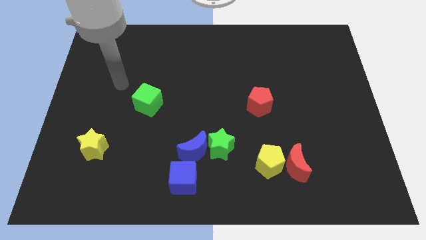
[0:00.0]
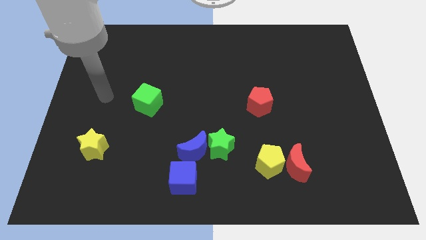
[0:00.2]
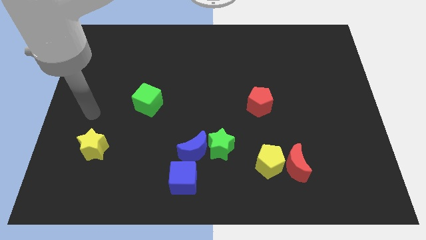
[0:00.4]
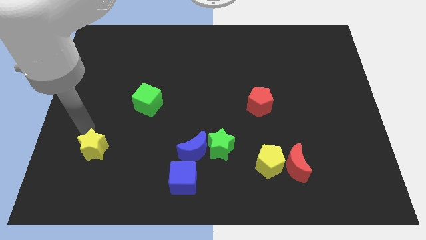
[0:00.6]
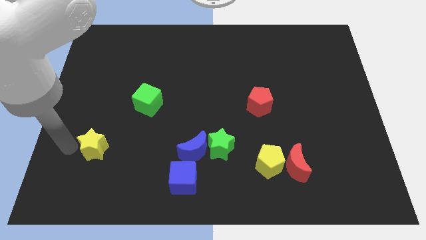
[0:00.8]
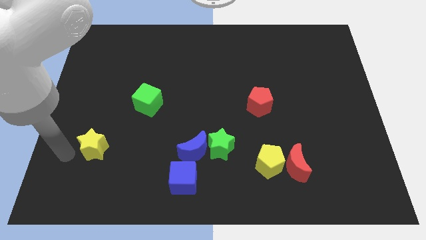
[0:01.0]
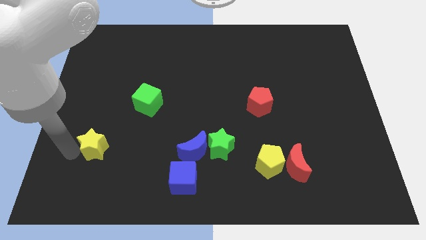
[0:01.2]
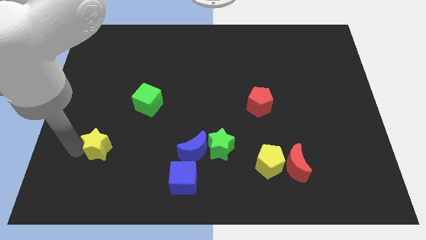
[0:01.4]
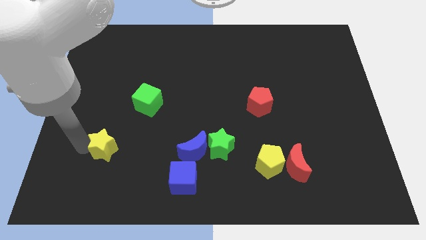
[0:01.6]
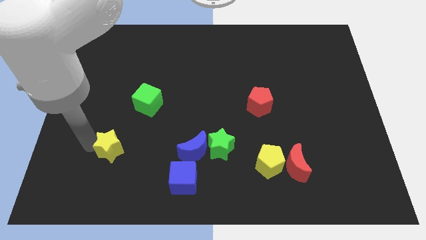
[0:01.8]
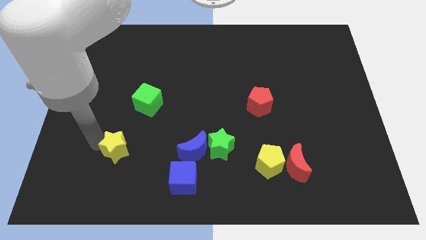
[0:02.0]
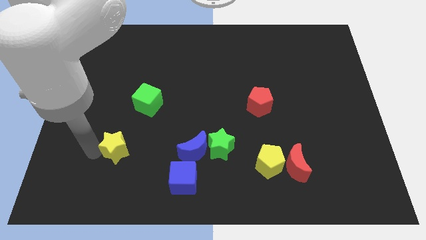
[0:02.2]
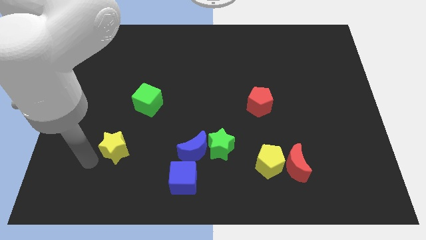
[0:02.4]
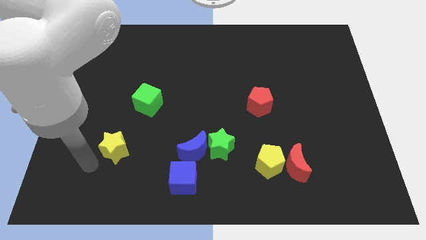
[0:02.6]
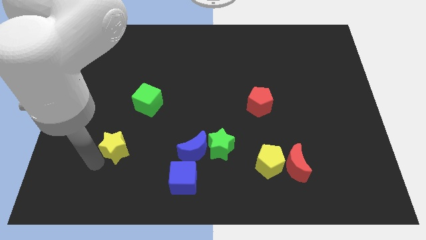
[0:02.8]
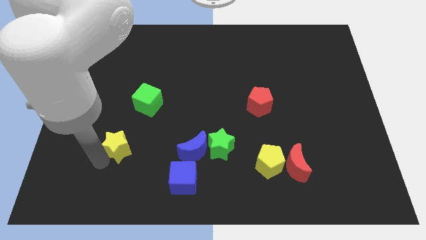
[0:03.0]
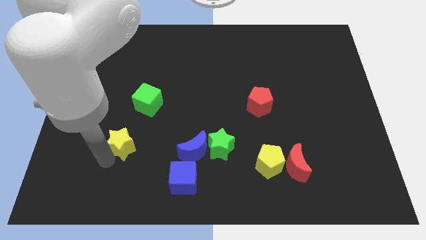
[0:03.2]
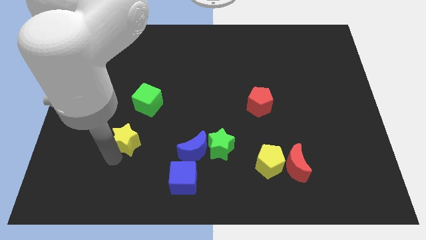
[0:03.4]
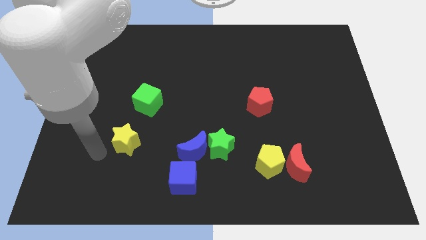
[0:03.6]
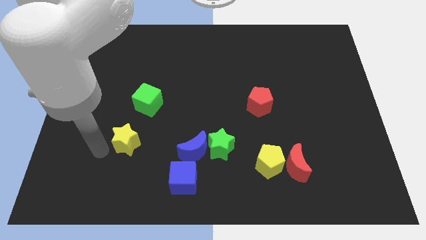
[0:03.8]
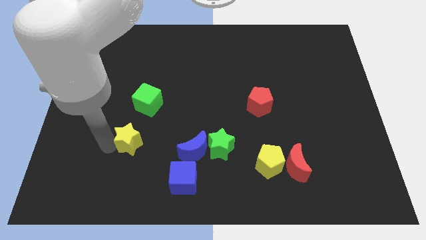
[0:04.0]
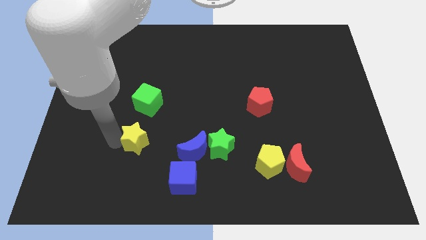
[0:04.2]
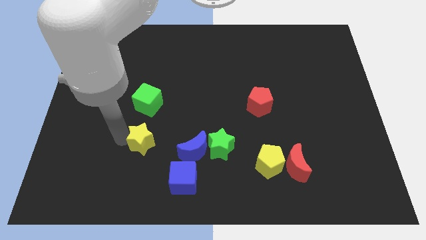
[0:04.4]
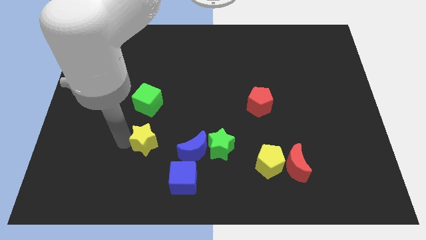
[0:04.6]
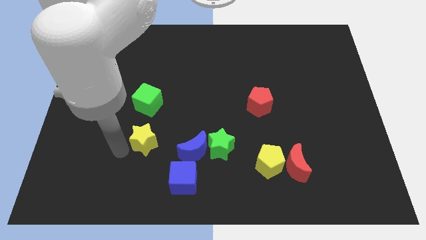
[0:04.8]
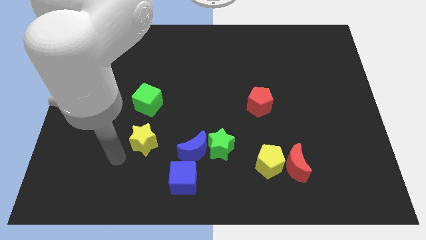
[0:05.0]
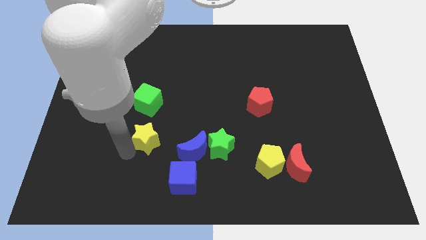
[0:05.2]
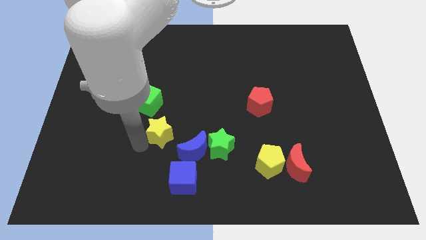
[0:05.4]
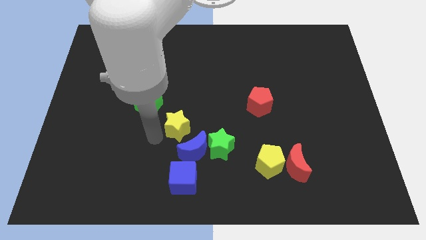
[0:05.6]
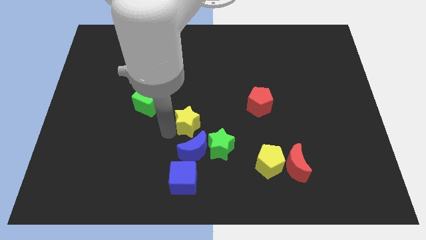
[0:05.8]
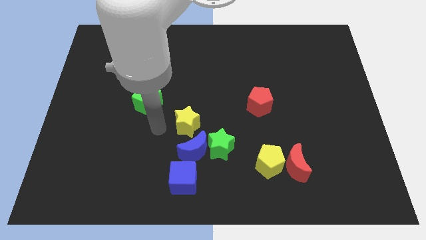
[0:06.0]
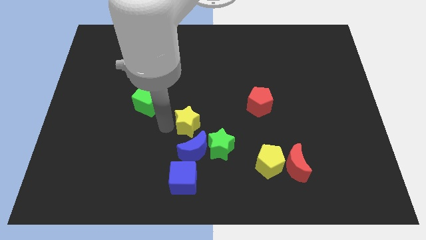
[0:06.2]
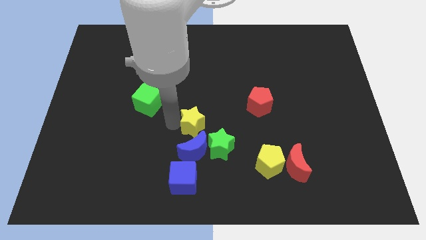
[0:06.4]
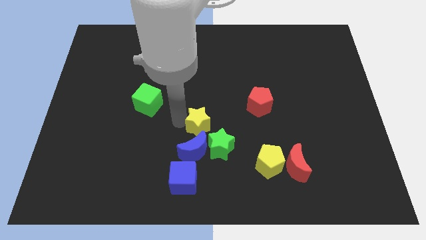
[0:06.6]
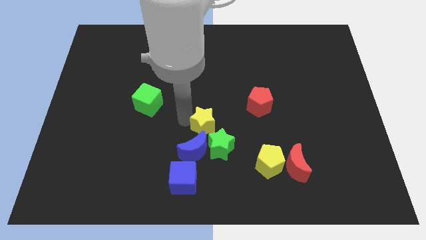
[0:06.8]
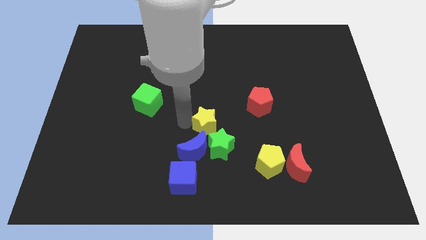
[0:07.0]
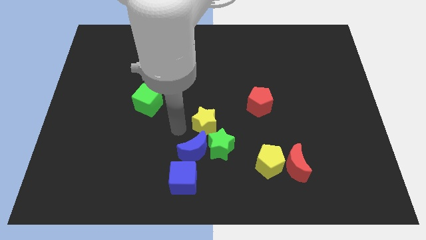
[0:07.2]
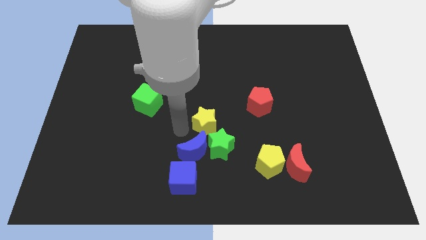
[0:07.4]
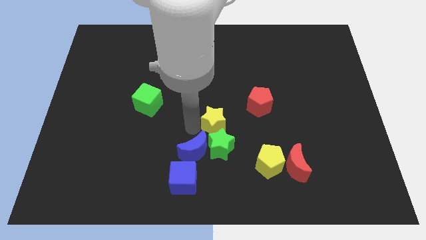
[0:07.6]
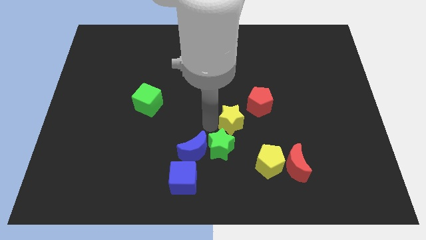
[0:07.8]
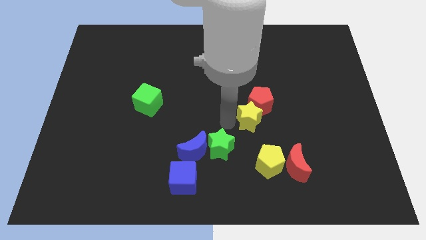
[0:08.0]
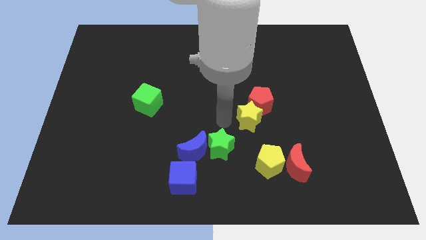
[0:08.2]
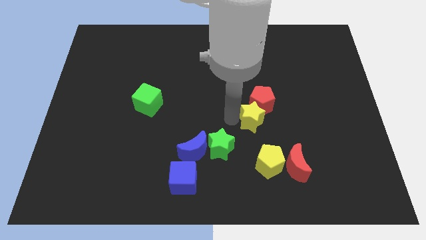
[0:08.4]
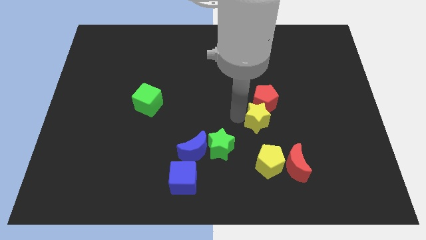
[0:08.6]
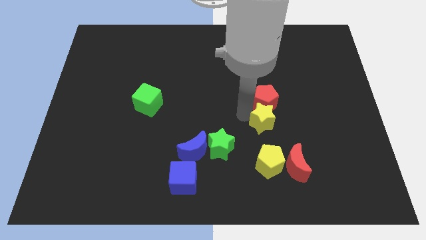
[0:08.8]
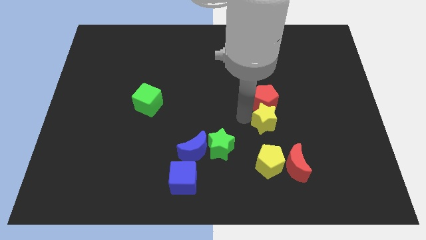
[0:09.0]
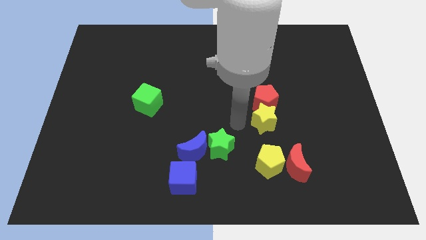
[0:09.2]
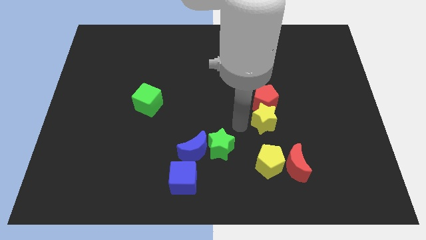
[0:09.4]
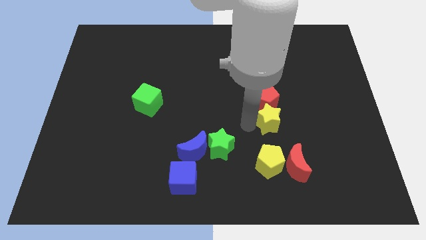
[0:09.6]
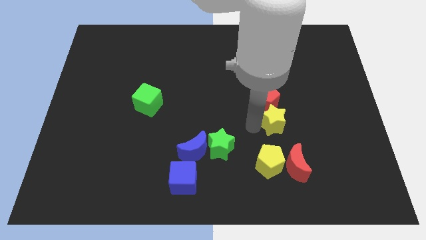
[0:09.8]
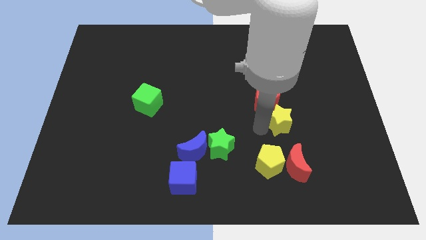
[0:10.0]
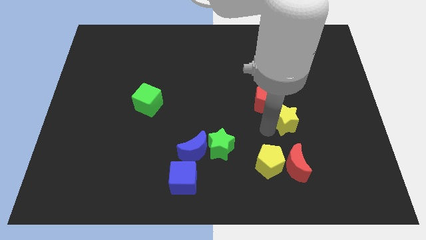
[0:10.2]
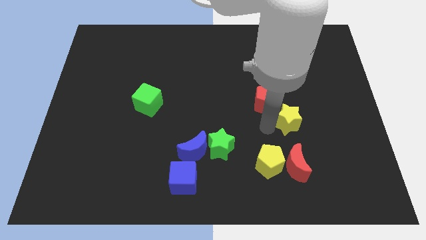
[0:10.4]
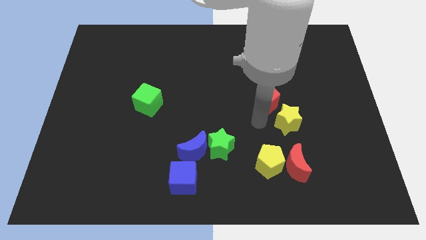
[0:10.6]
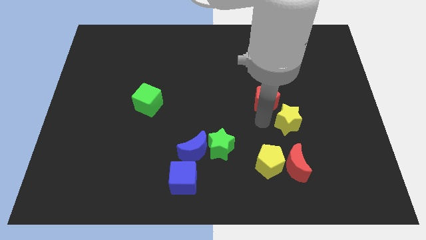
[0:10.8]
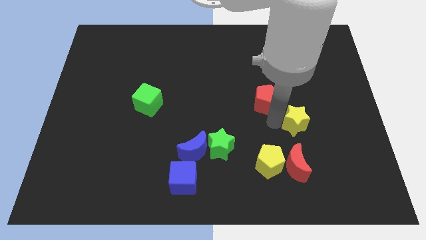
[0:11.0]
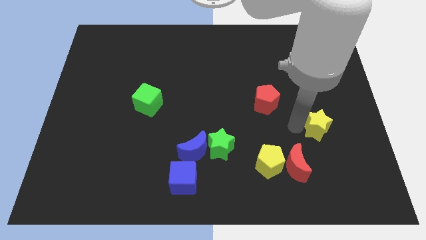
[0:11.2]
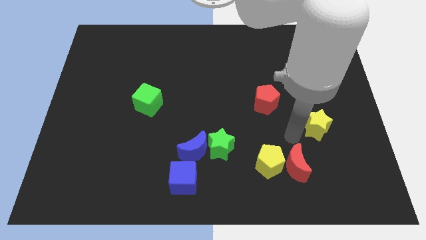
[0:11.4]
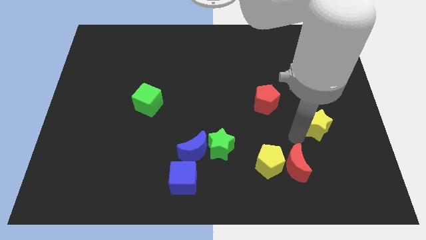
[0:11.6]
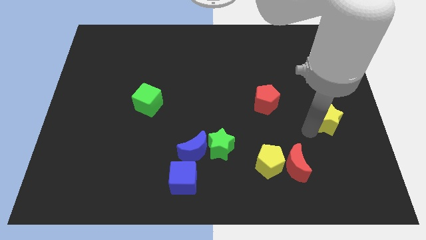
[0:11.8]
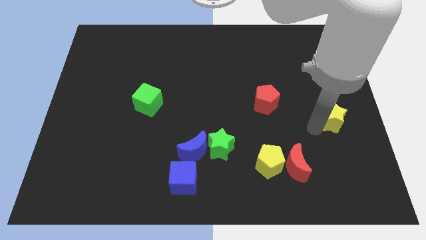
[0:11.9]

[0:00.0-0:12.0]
put the yellow star to the center right

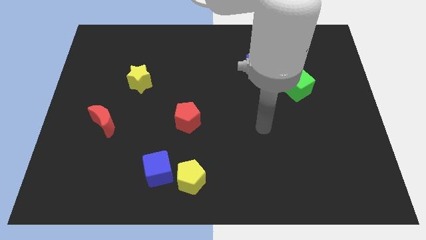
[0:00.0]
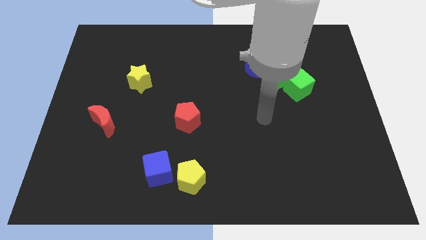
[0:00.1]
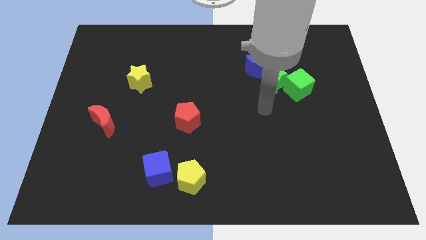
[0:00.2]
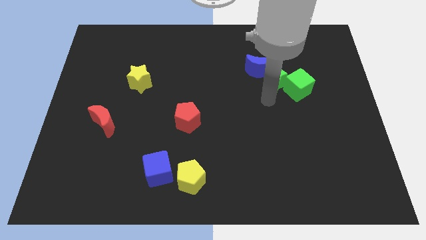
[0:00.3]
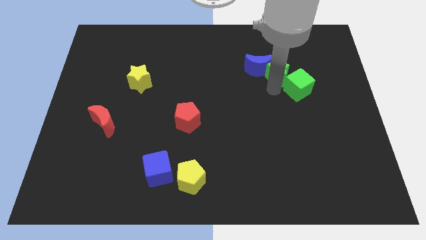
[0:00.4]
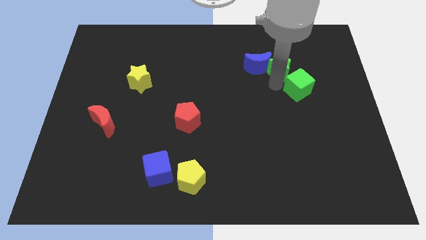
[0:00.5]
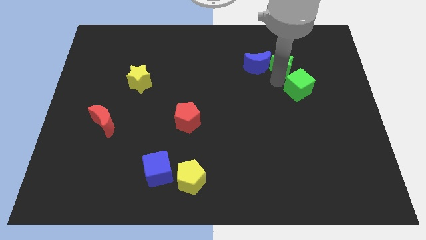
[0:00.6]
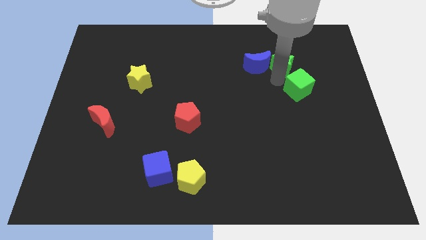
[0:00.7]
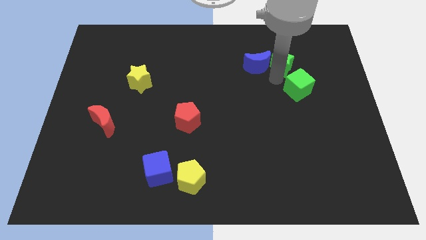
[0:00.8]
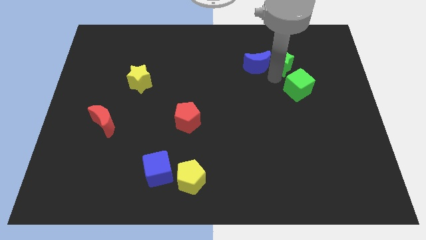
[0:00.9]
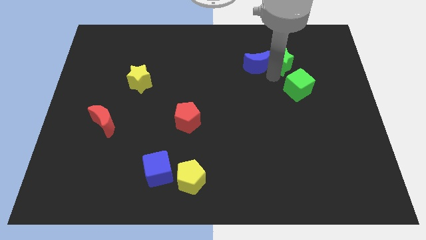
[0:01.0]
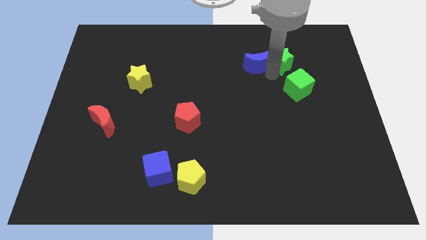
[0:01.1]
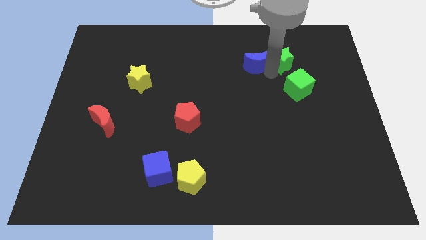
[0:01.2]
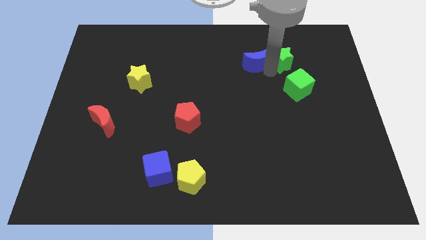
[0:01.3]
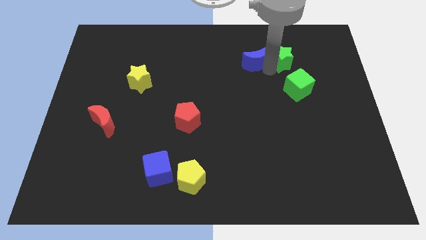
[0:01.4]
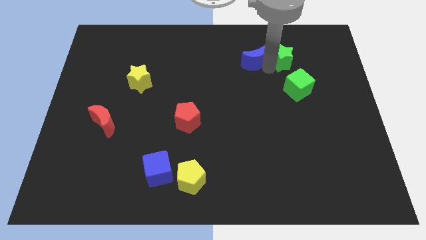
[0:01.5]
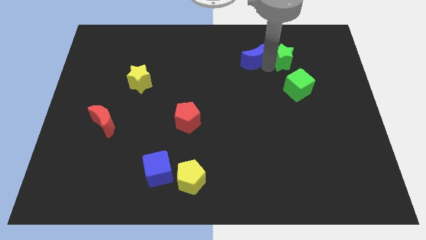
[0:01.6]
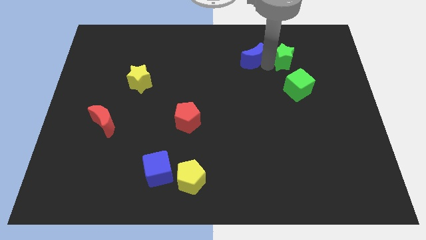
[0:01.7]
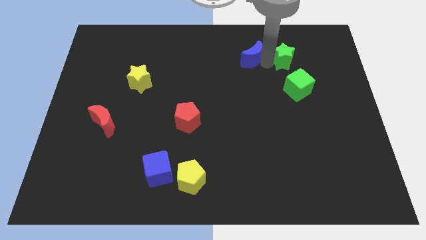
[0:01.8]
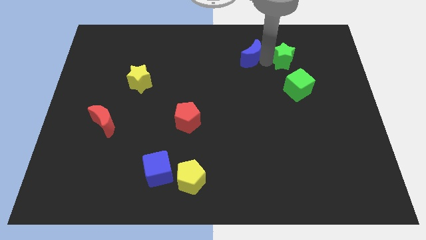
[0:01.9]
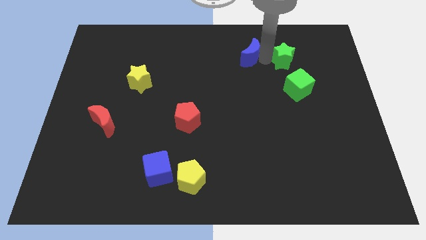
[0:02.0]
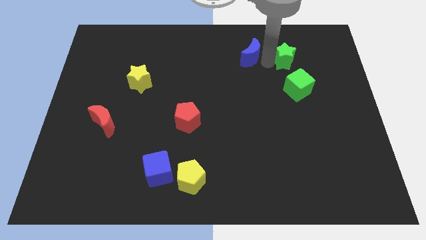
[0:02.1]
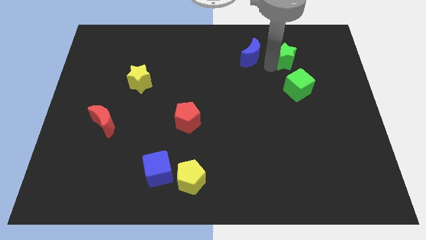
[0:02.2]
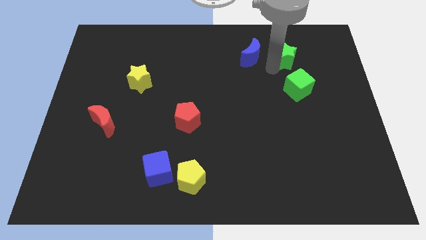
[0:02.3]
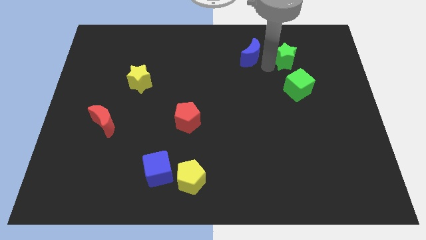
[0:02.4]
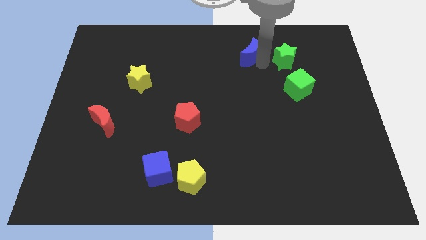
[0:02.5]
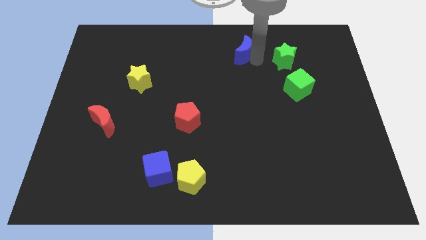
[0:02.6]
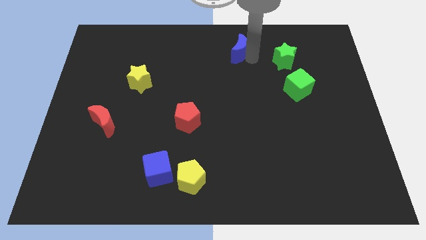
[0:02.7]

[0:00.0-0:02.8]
put the blue moon to the top
